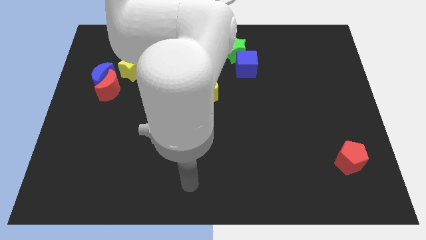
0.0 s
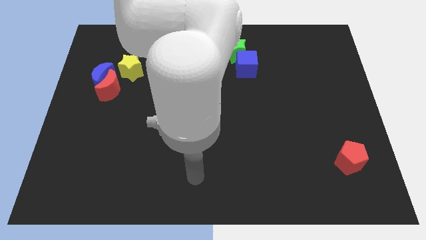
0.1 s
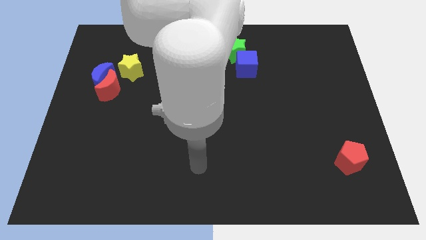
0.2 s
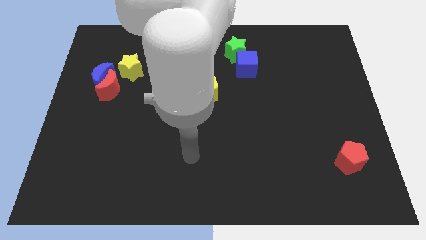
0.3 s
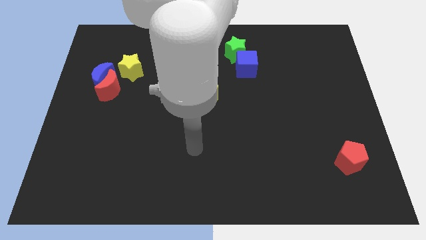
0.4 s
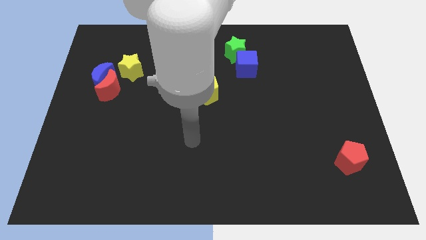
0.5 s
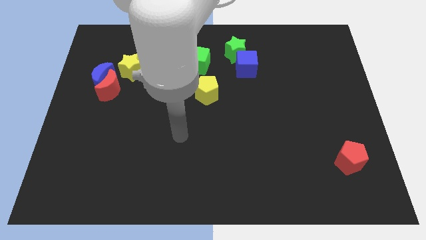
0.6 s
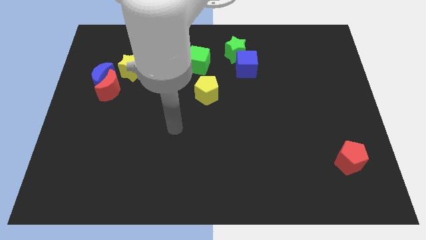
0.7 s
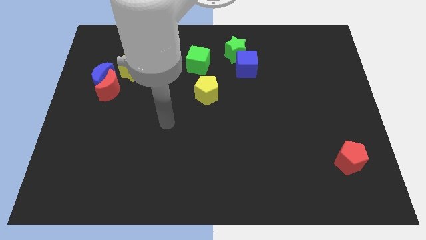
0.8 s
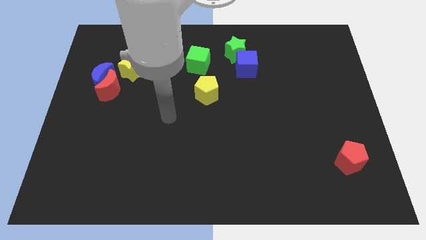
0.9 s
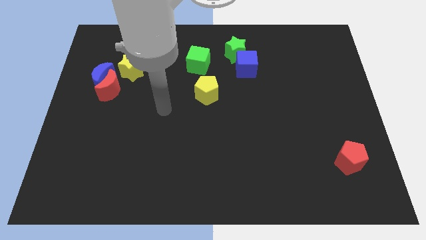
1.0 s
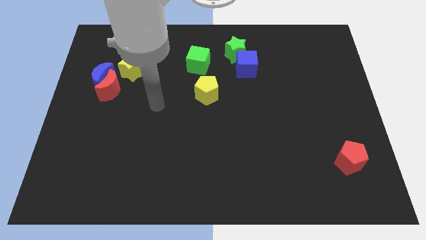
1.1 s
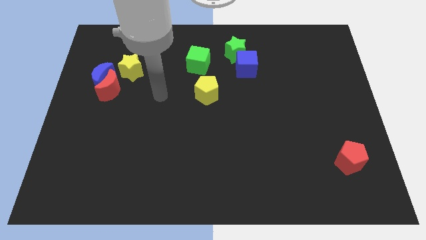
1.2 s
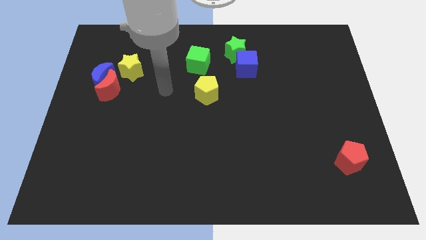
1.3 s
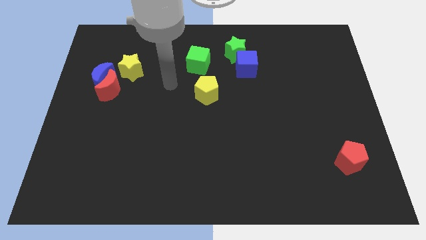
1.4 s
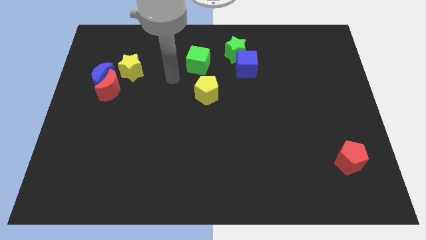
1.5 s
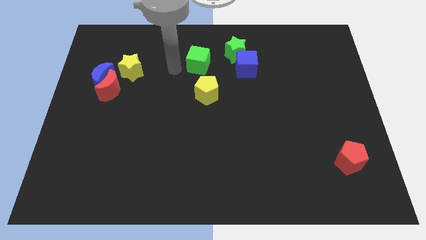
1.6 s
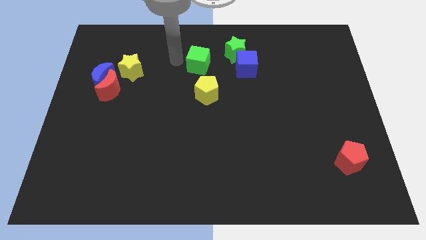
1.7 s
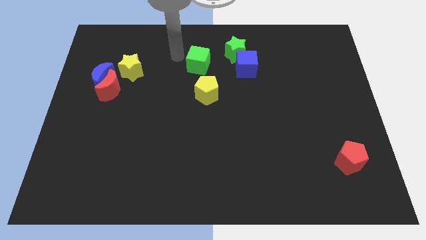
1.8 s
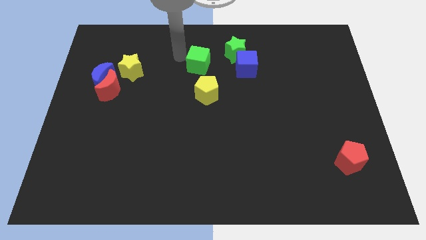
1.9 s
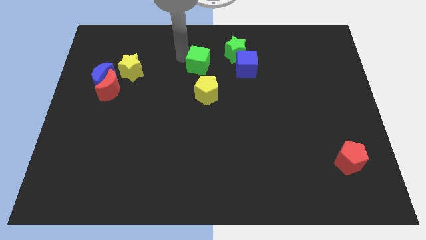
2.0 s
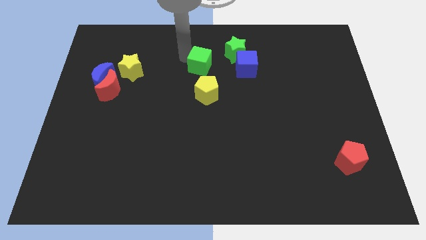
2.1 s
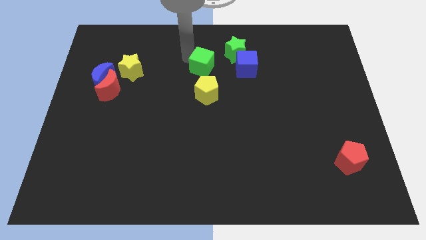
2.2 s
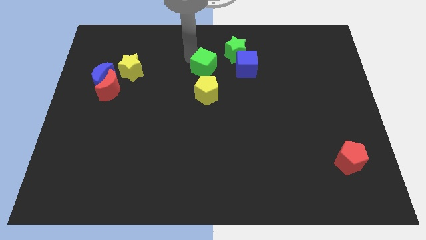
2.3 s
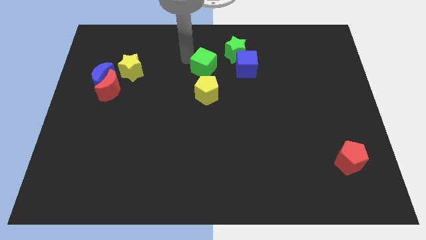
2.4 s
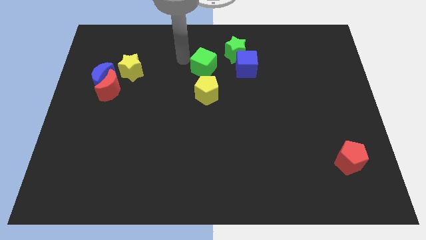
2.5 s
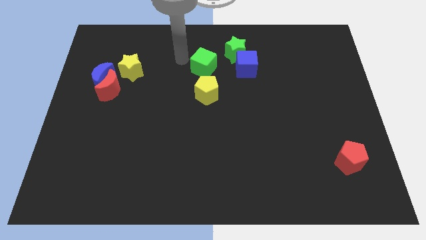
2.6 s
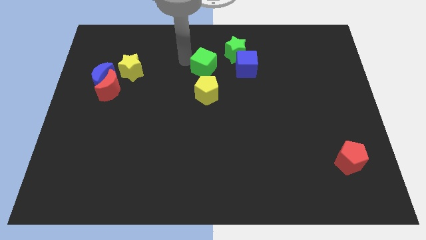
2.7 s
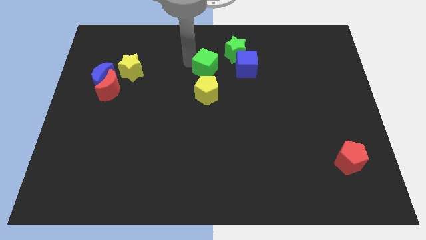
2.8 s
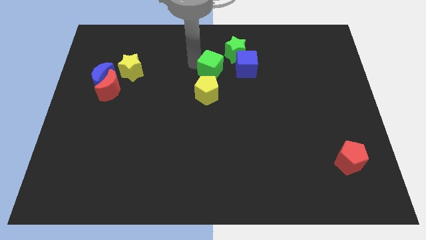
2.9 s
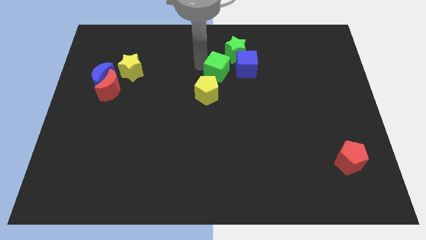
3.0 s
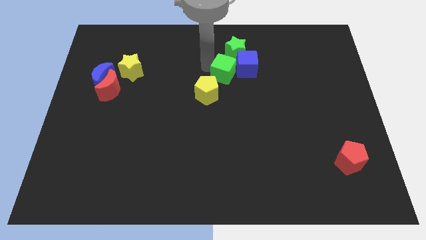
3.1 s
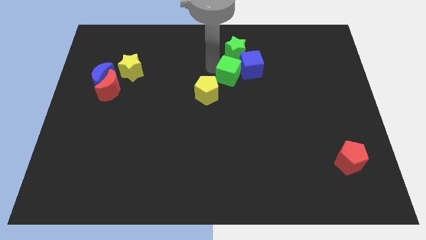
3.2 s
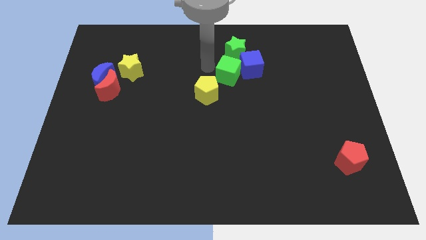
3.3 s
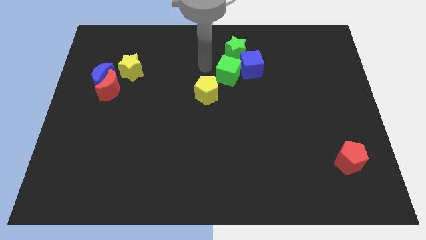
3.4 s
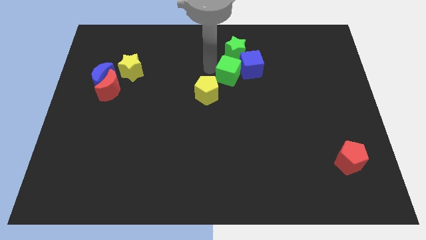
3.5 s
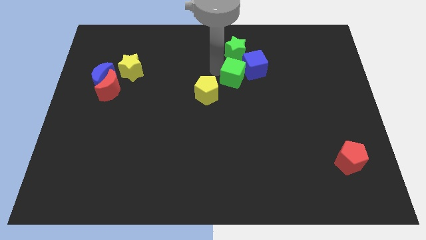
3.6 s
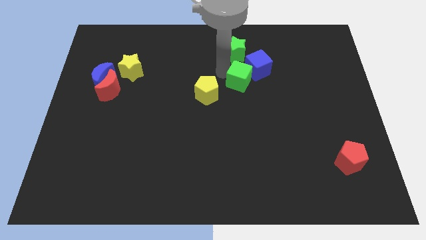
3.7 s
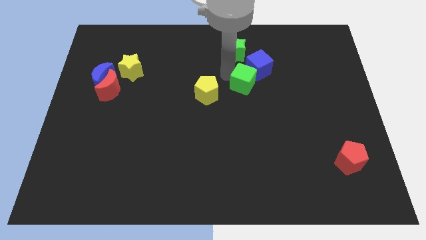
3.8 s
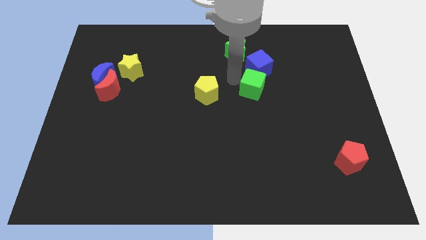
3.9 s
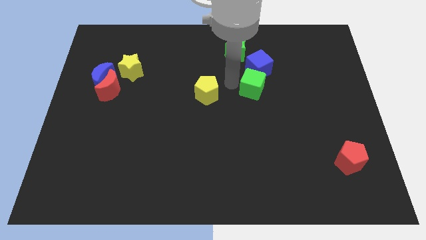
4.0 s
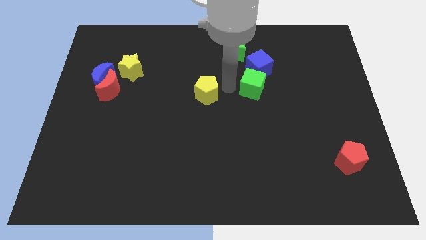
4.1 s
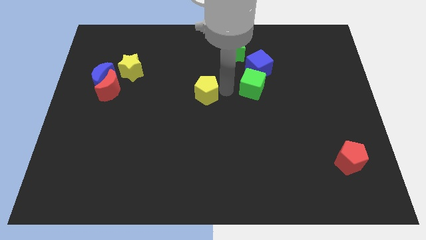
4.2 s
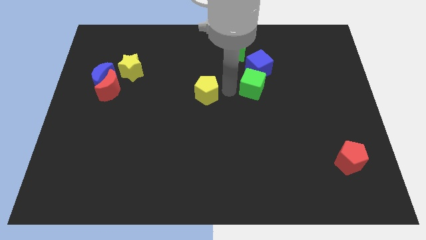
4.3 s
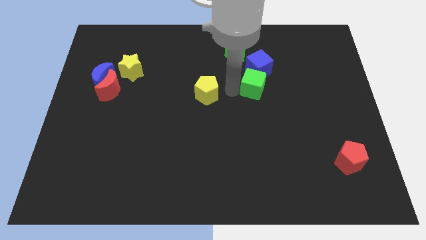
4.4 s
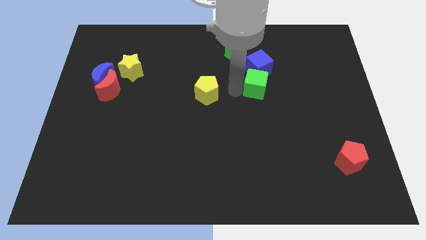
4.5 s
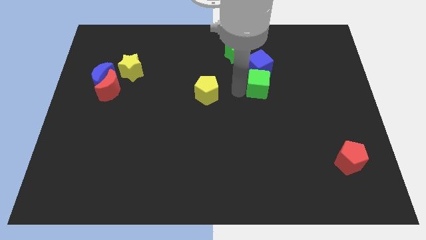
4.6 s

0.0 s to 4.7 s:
push the green cube to the bottom right of the blue cube

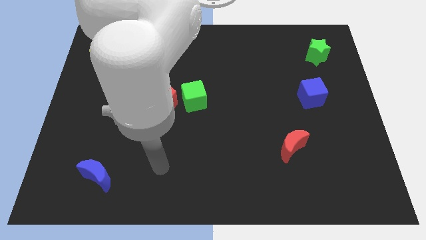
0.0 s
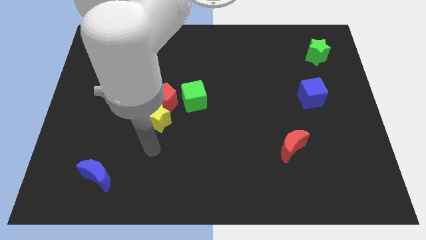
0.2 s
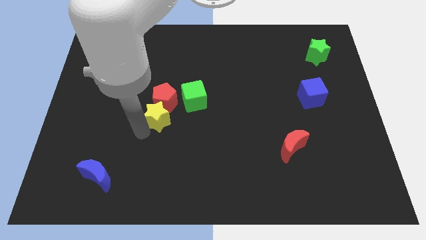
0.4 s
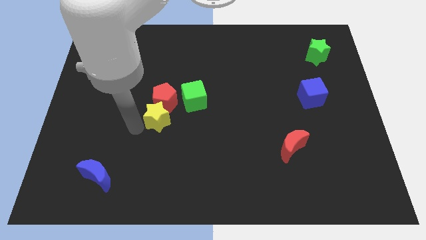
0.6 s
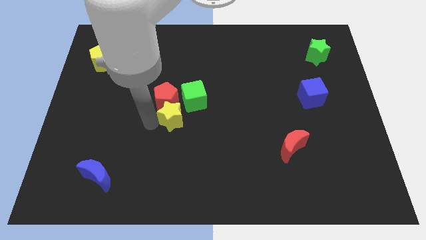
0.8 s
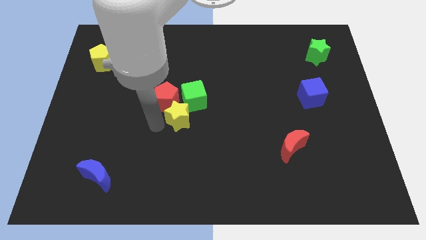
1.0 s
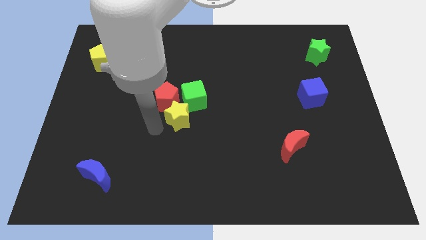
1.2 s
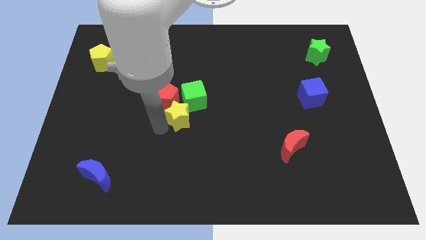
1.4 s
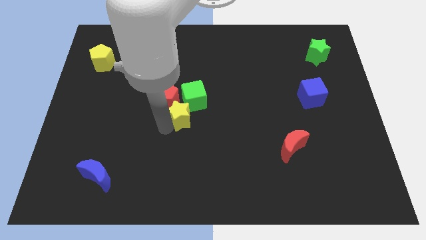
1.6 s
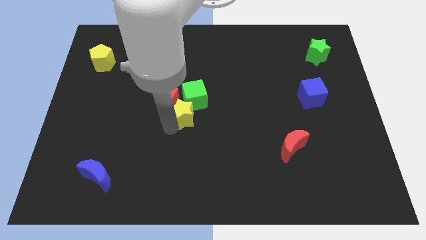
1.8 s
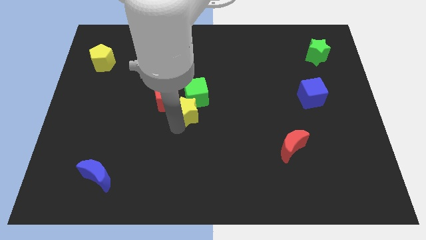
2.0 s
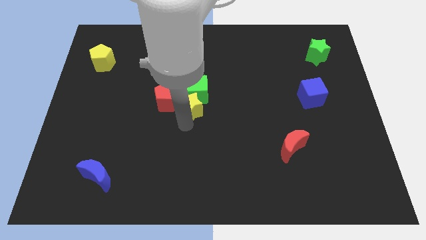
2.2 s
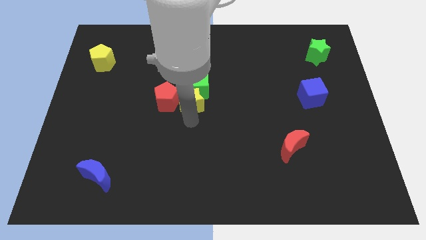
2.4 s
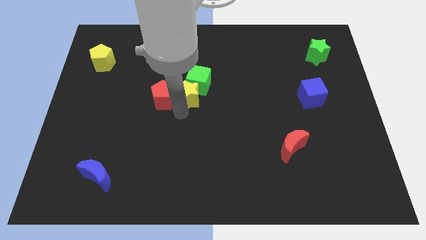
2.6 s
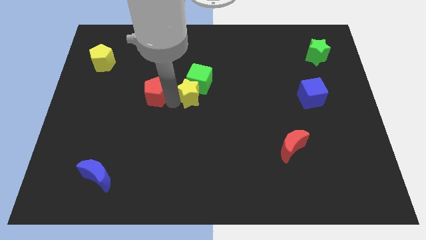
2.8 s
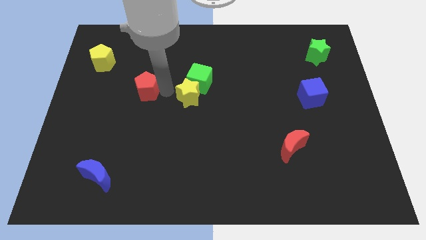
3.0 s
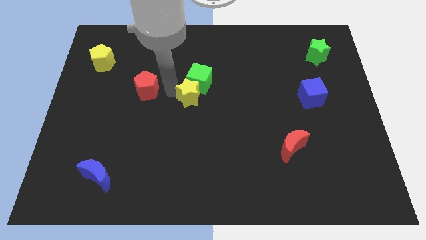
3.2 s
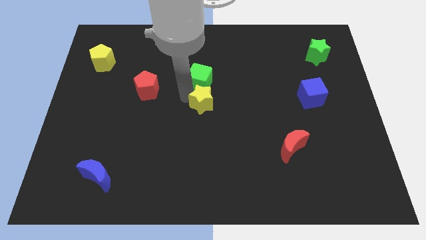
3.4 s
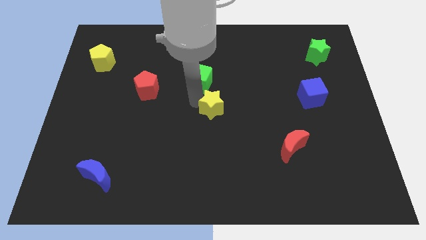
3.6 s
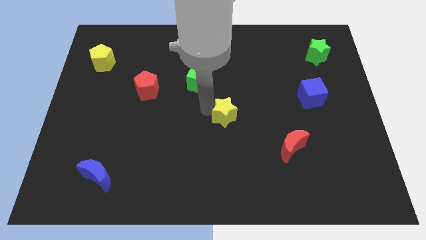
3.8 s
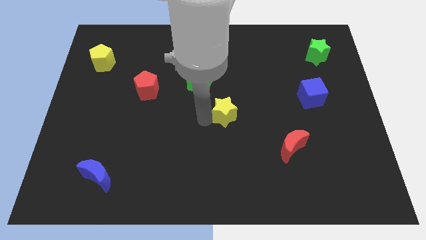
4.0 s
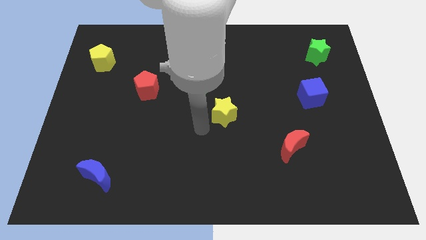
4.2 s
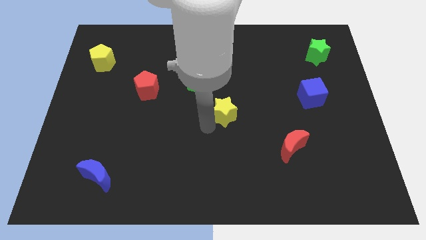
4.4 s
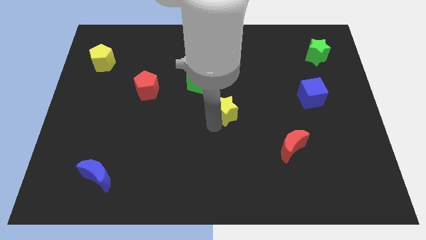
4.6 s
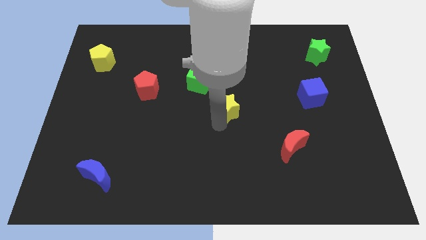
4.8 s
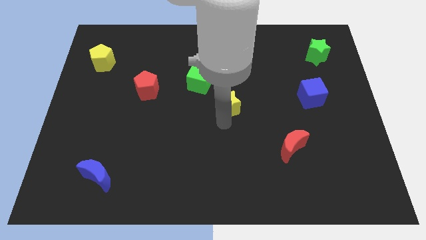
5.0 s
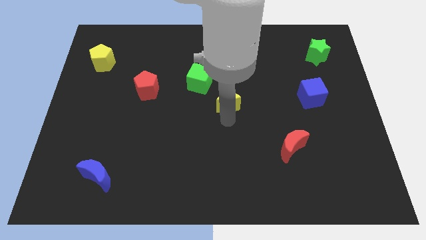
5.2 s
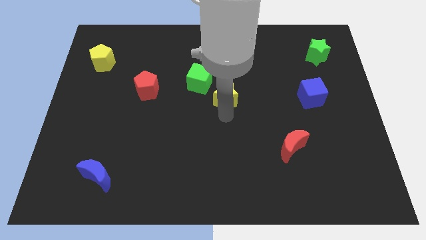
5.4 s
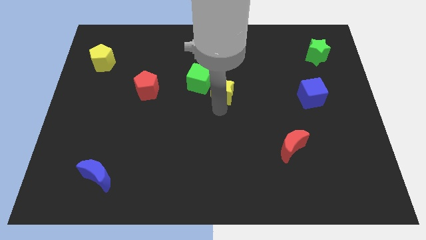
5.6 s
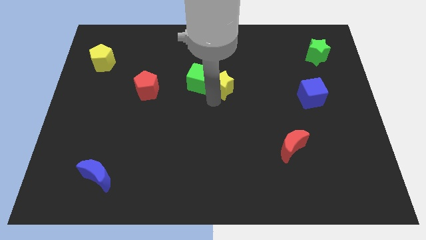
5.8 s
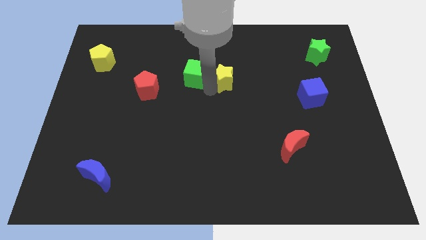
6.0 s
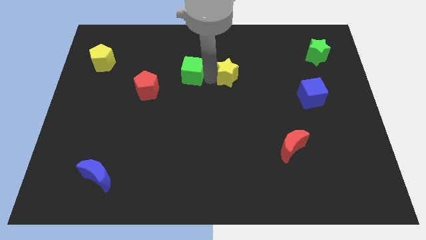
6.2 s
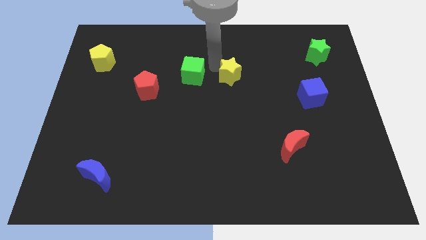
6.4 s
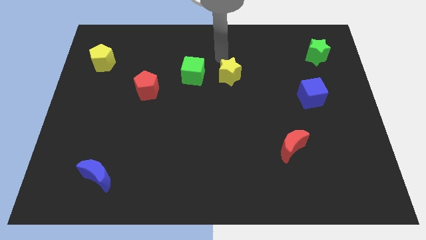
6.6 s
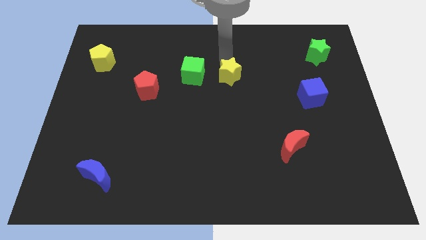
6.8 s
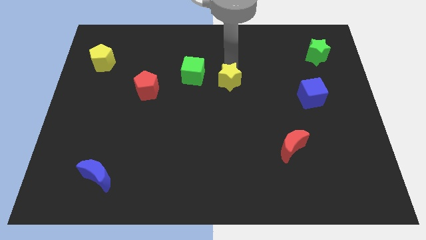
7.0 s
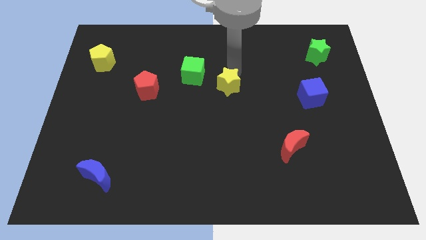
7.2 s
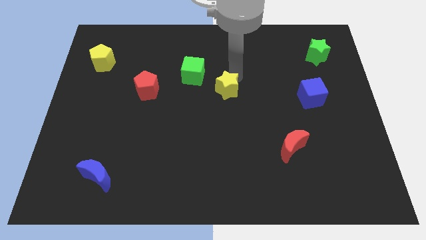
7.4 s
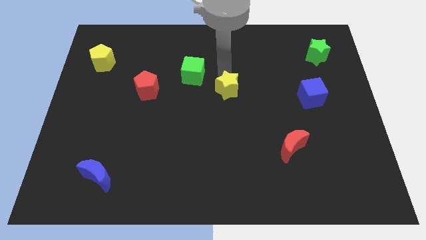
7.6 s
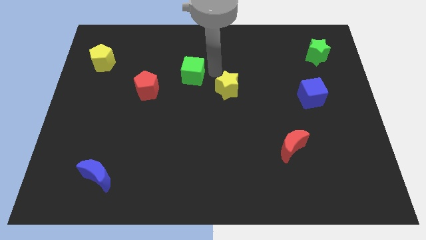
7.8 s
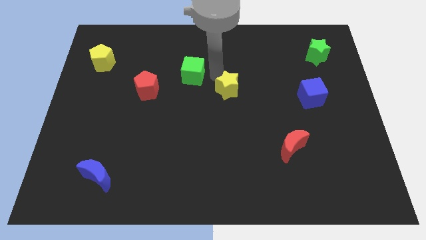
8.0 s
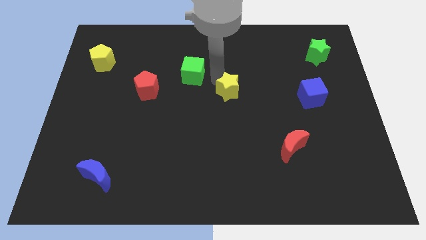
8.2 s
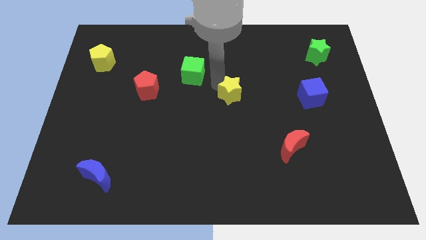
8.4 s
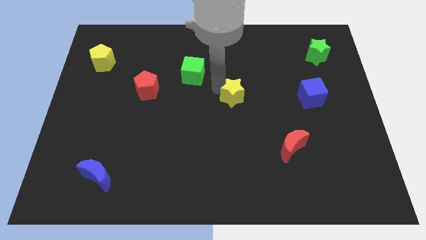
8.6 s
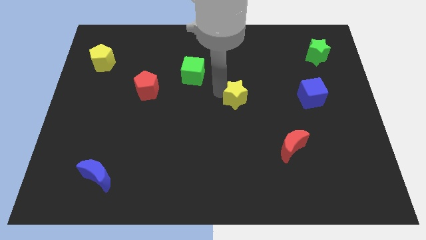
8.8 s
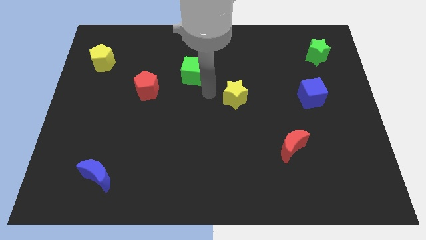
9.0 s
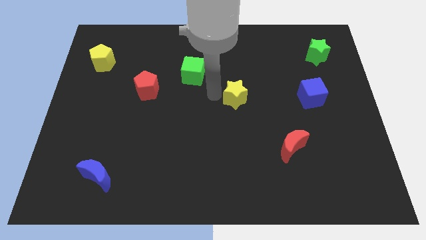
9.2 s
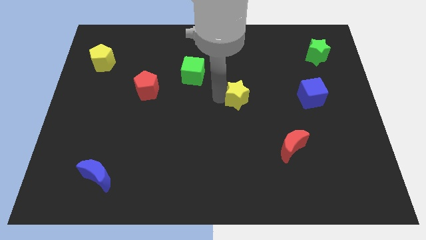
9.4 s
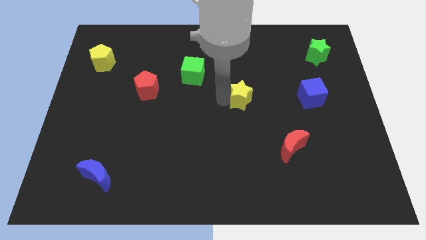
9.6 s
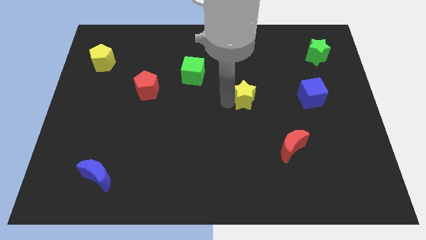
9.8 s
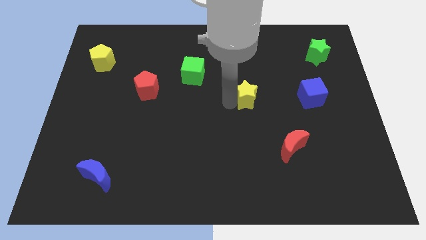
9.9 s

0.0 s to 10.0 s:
move the yellow star to the left side of the blue cube
